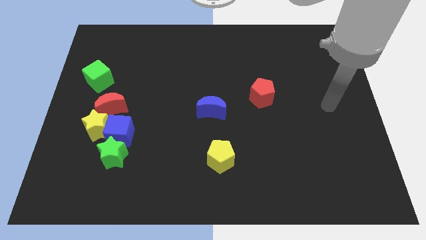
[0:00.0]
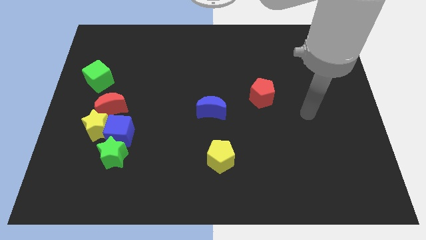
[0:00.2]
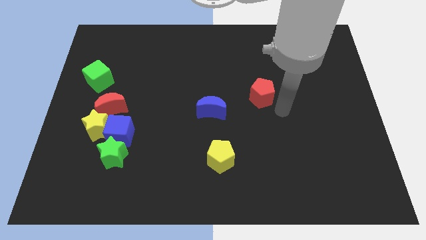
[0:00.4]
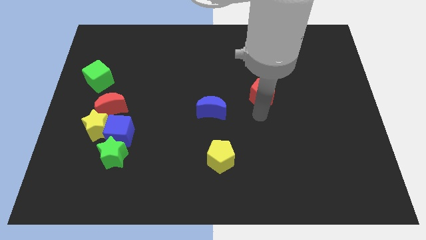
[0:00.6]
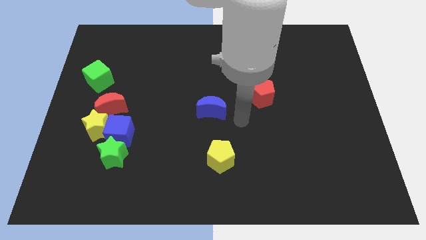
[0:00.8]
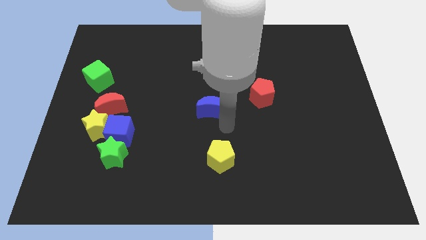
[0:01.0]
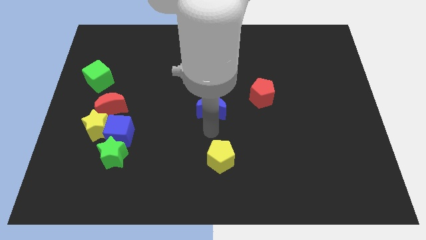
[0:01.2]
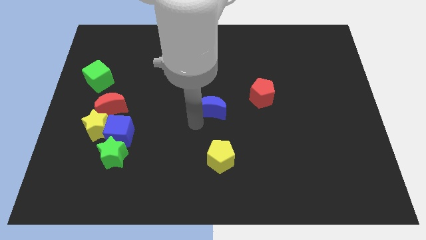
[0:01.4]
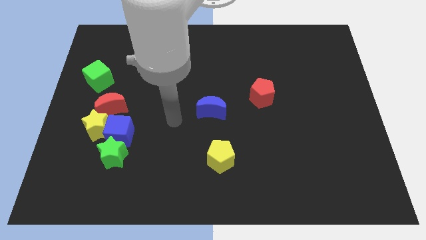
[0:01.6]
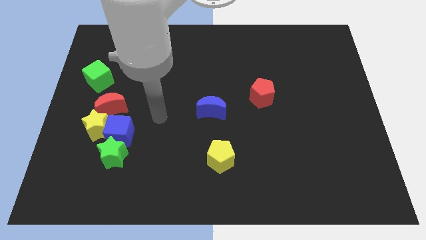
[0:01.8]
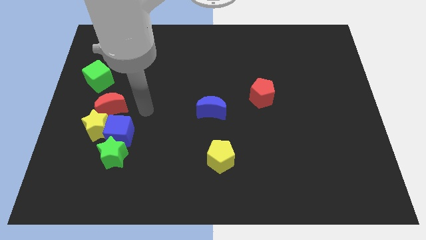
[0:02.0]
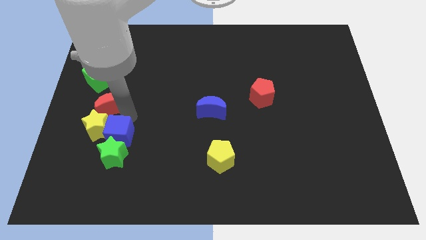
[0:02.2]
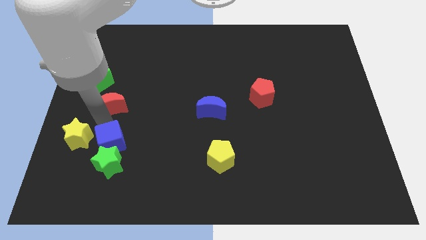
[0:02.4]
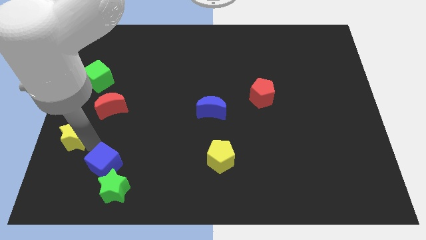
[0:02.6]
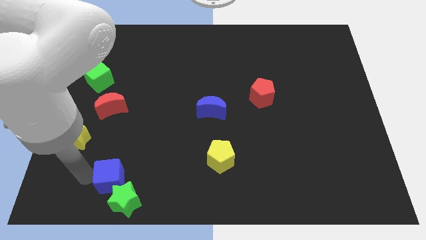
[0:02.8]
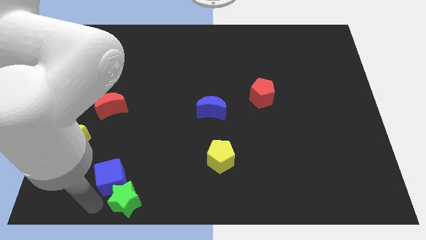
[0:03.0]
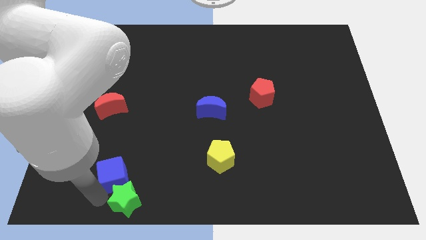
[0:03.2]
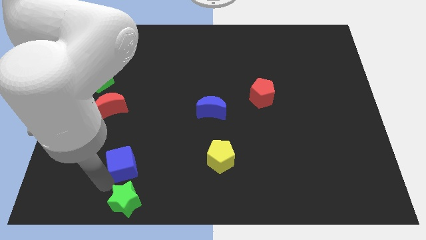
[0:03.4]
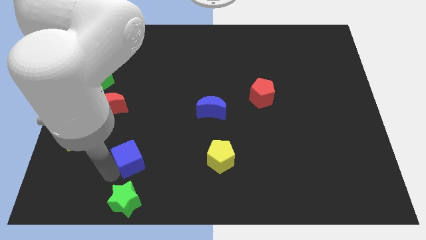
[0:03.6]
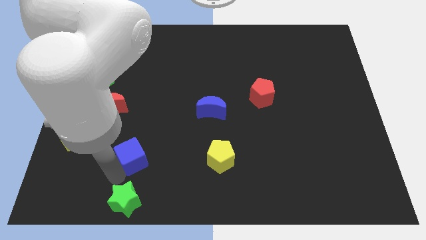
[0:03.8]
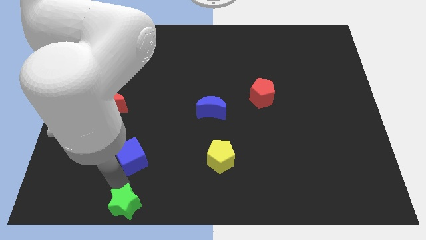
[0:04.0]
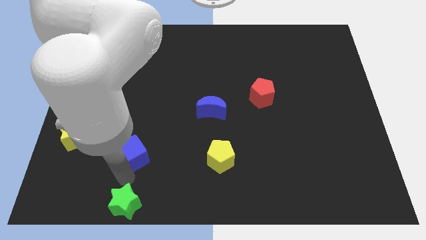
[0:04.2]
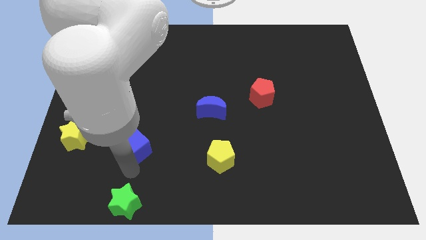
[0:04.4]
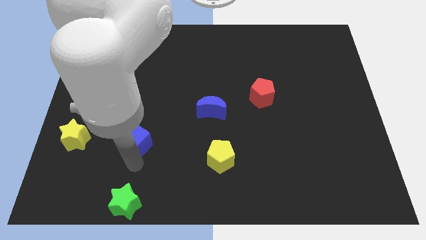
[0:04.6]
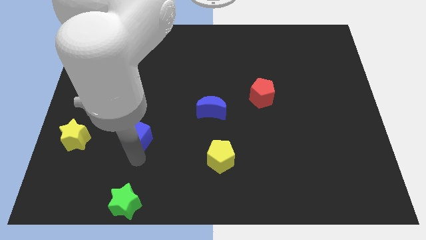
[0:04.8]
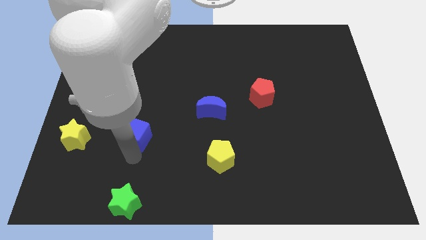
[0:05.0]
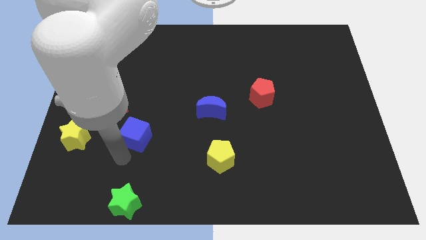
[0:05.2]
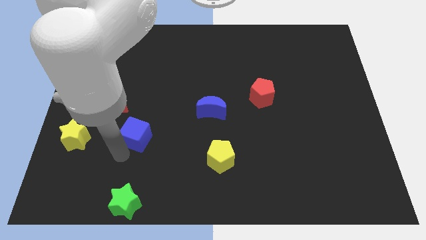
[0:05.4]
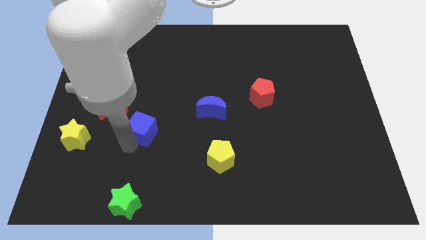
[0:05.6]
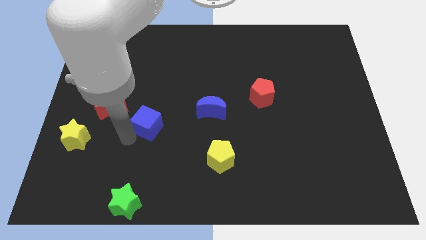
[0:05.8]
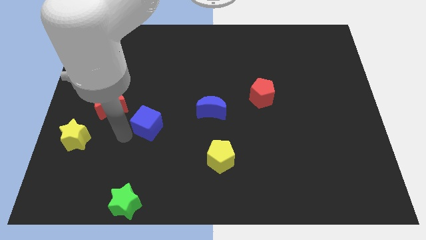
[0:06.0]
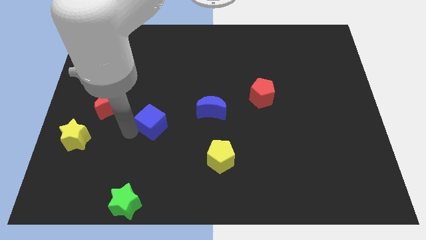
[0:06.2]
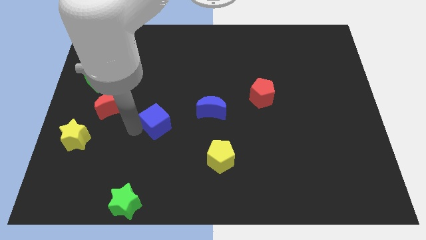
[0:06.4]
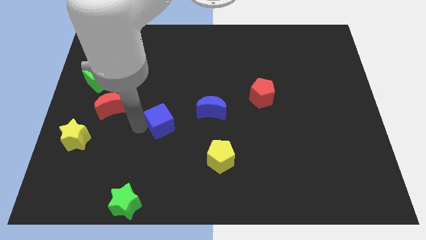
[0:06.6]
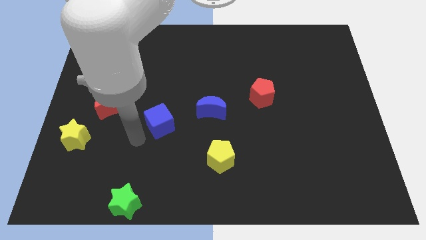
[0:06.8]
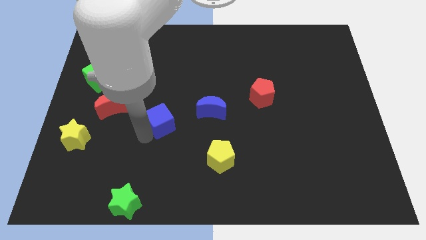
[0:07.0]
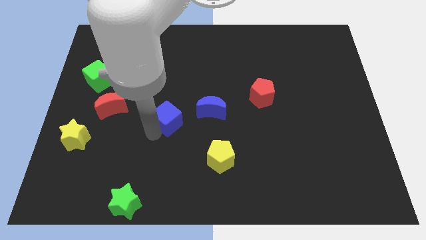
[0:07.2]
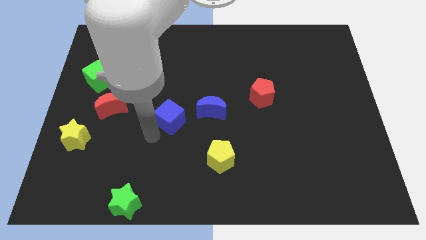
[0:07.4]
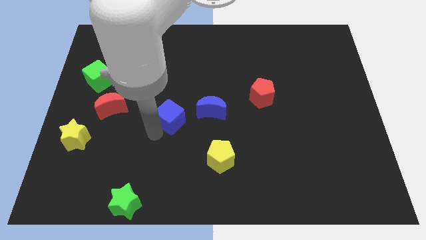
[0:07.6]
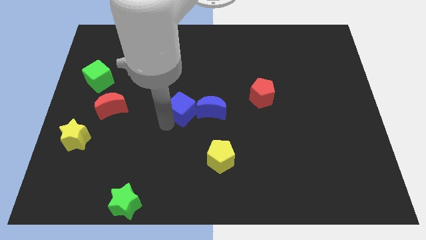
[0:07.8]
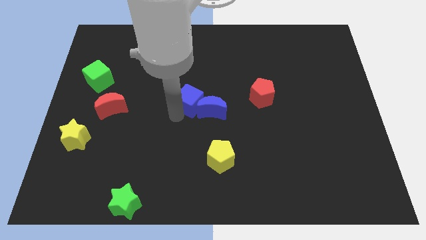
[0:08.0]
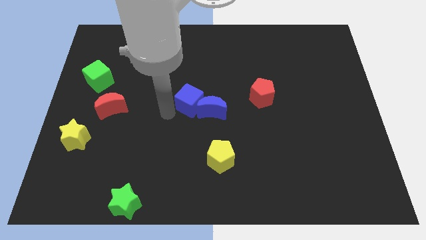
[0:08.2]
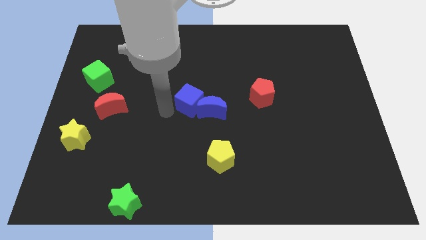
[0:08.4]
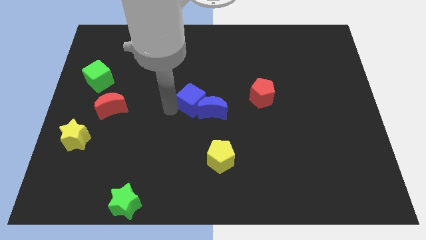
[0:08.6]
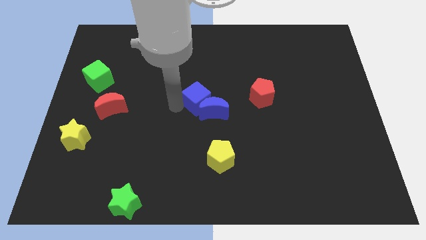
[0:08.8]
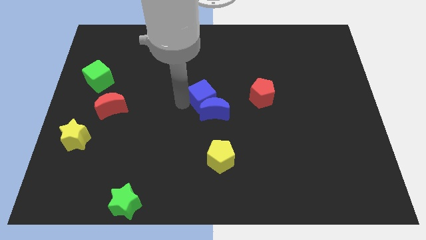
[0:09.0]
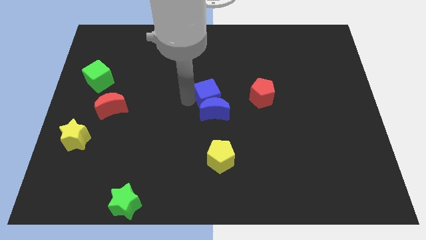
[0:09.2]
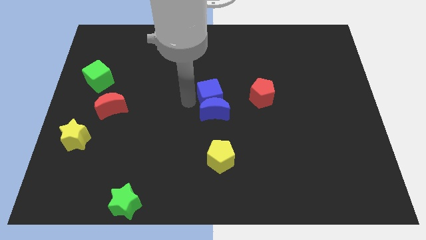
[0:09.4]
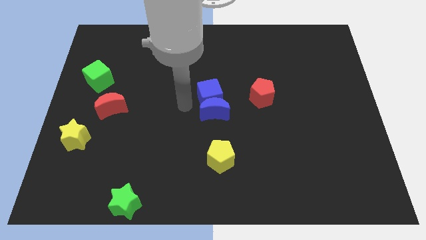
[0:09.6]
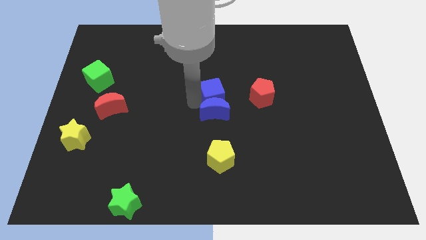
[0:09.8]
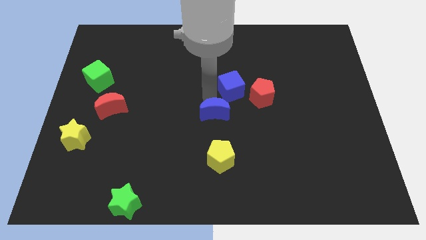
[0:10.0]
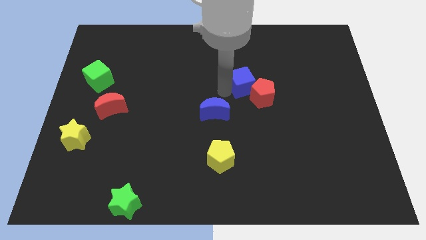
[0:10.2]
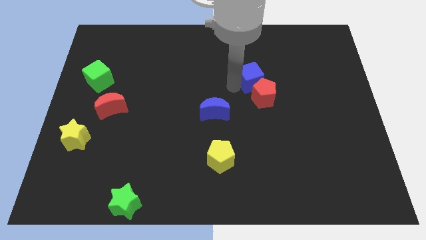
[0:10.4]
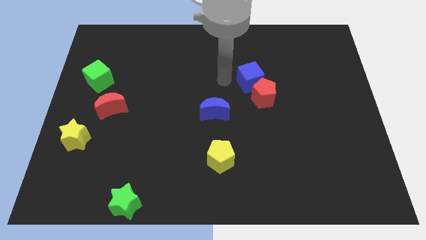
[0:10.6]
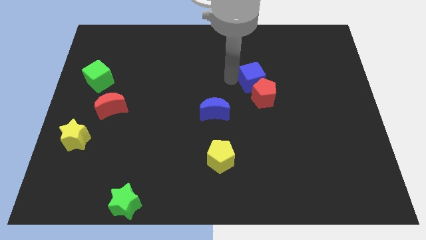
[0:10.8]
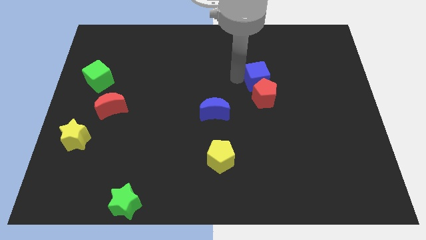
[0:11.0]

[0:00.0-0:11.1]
put the blue cube diagonally up and to the right of the red pentagon

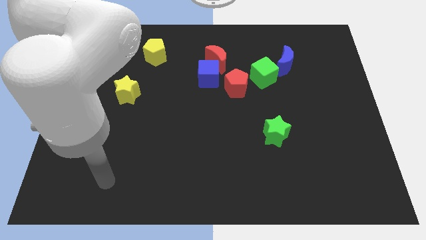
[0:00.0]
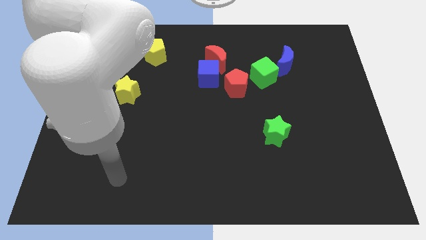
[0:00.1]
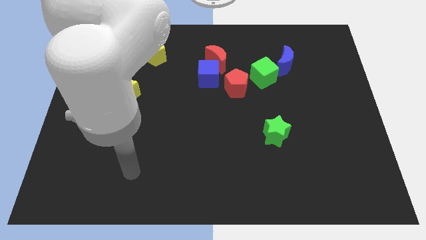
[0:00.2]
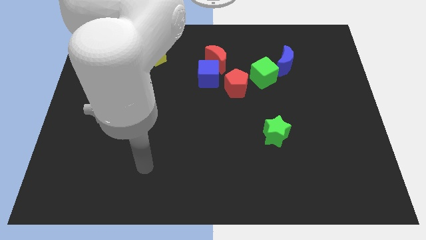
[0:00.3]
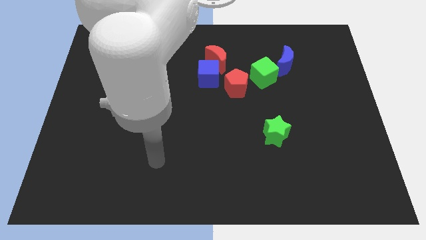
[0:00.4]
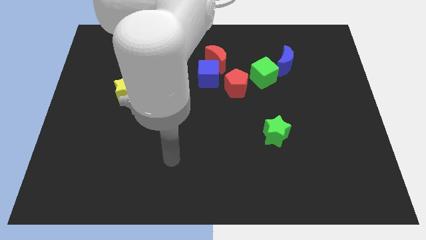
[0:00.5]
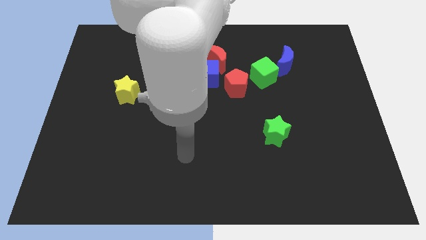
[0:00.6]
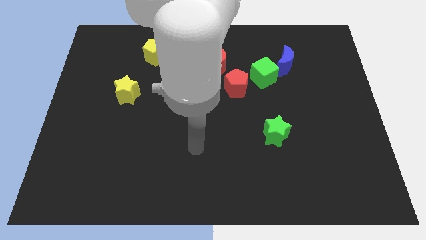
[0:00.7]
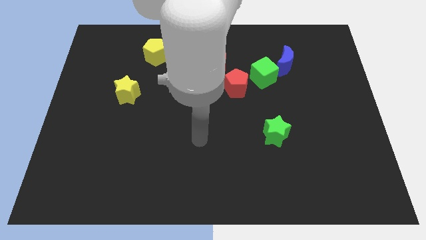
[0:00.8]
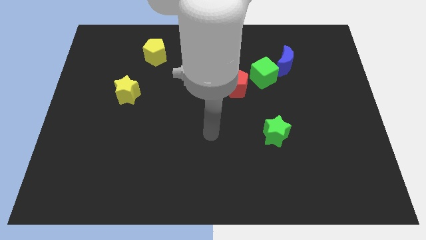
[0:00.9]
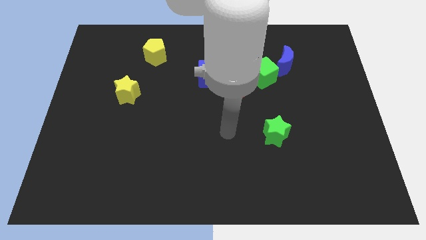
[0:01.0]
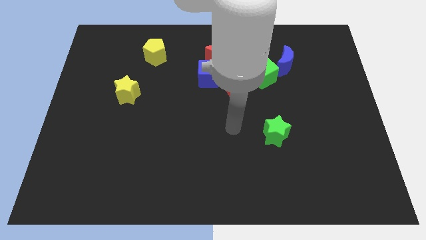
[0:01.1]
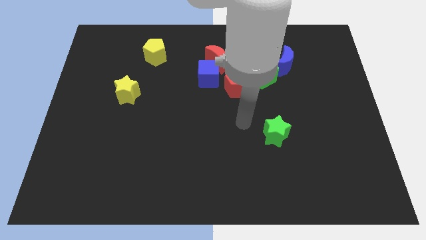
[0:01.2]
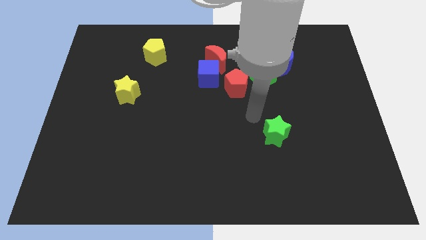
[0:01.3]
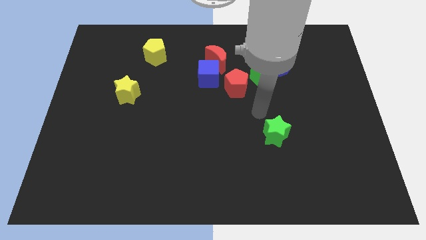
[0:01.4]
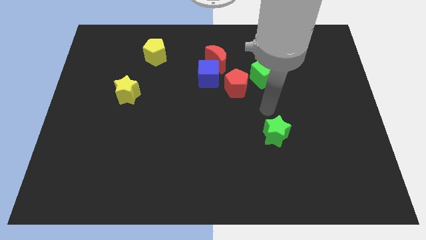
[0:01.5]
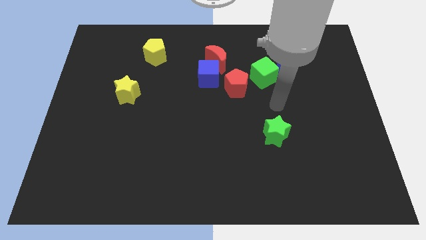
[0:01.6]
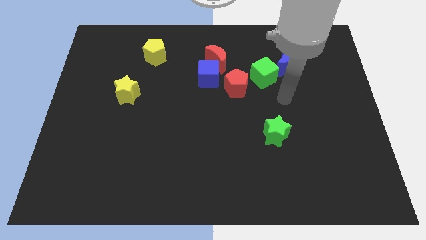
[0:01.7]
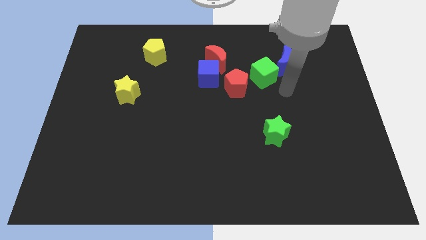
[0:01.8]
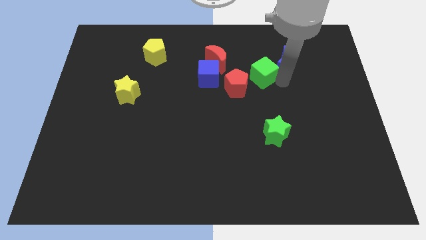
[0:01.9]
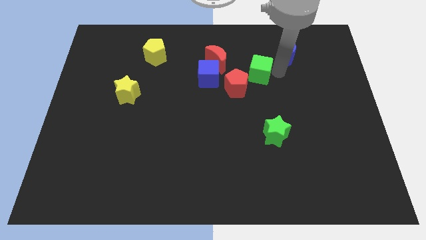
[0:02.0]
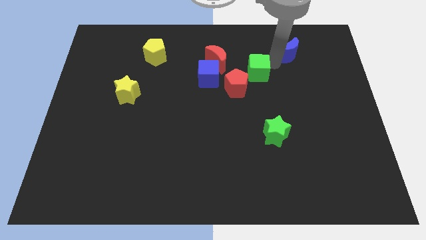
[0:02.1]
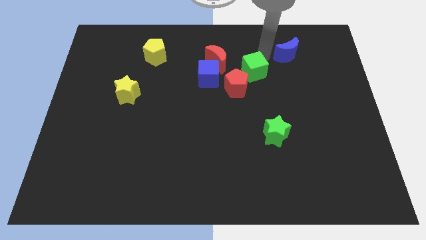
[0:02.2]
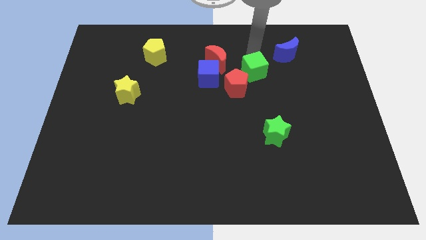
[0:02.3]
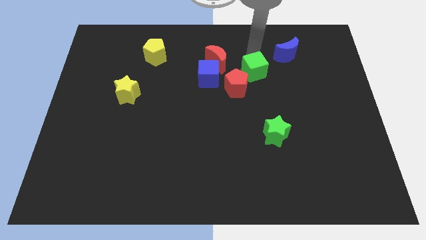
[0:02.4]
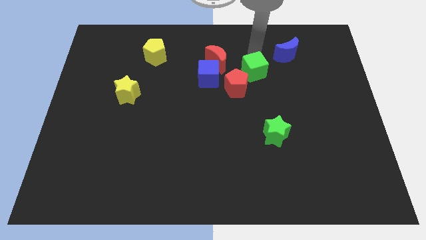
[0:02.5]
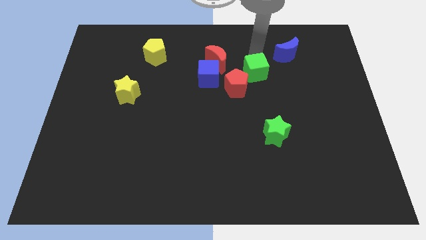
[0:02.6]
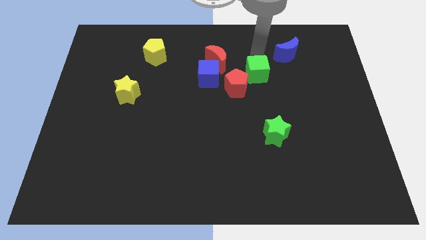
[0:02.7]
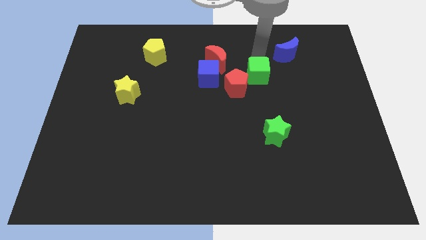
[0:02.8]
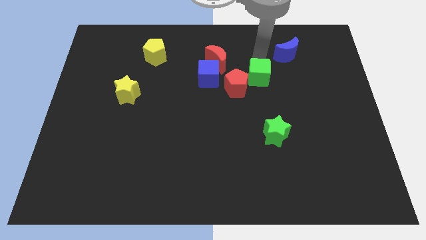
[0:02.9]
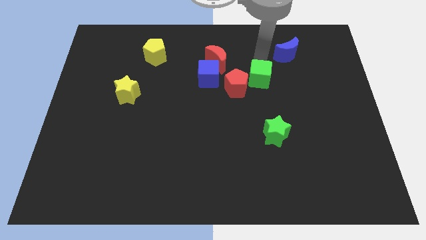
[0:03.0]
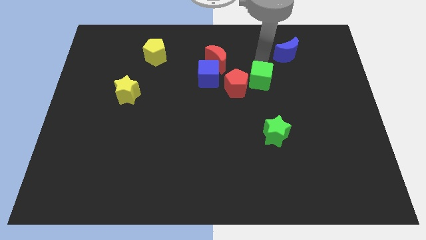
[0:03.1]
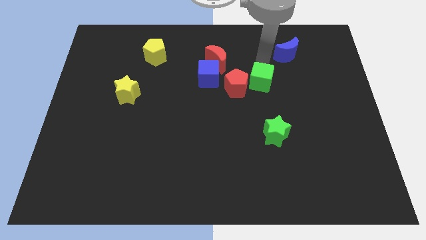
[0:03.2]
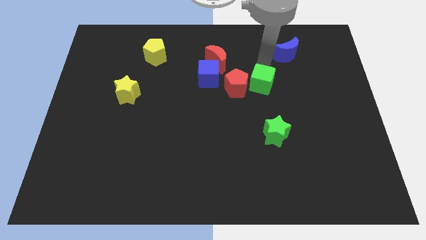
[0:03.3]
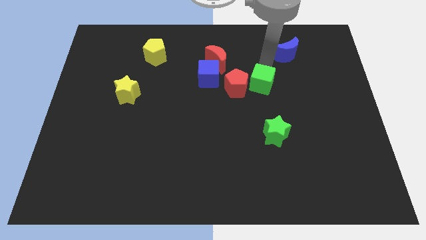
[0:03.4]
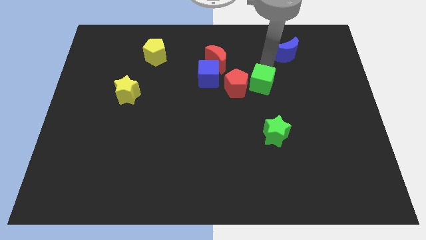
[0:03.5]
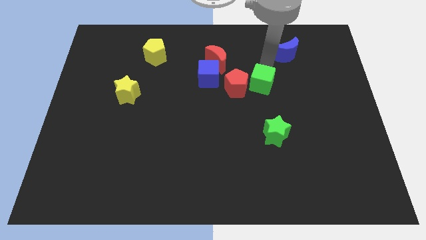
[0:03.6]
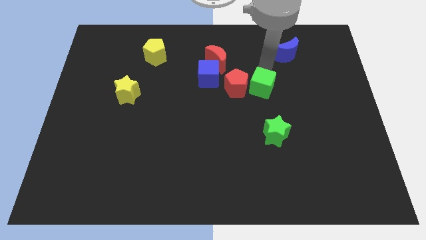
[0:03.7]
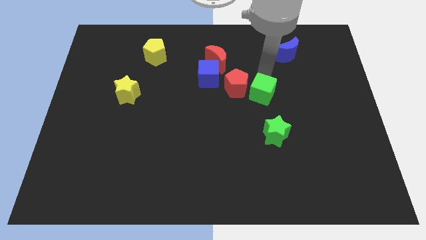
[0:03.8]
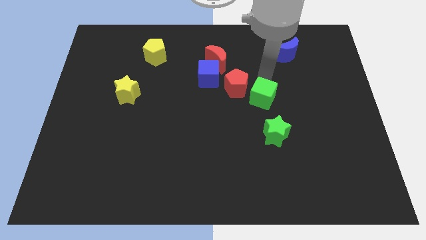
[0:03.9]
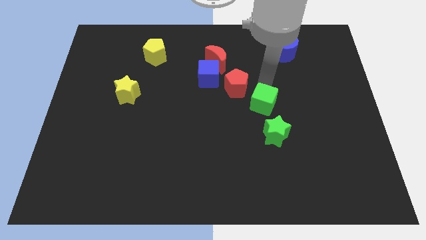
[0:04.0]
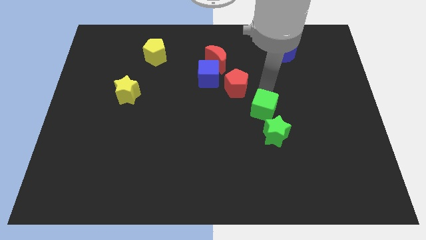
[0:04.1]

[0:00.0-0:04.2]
slide the green cube diagonally up and to the left of the green star
